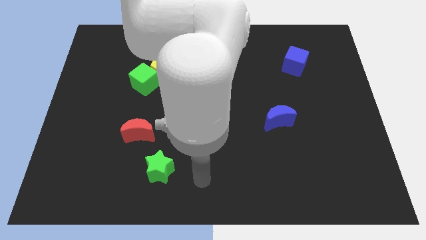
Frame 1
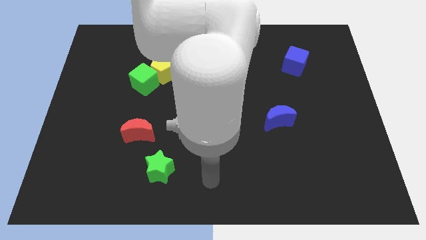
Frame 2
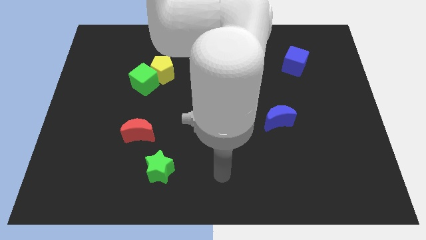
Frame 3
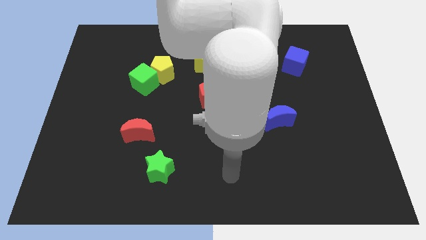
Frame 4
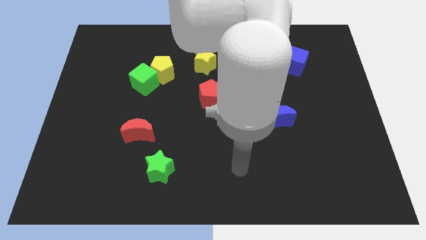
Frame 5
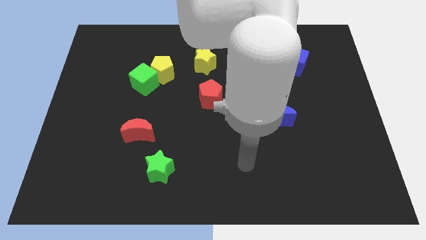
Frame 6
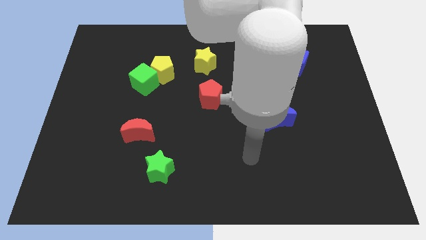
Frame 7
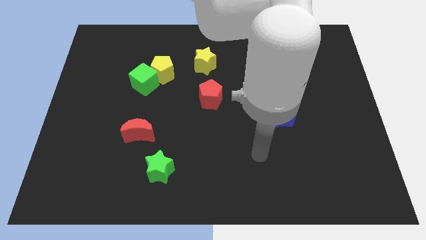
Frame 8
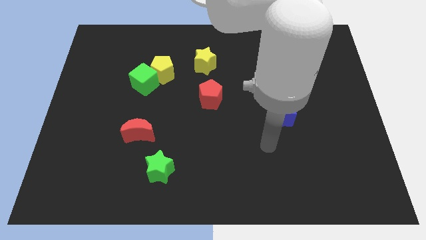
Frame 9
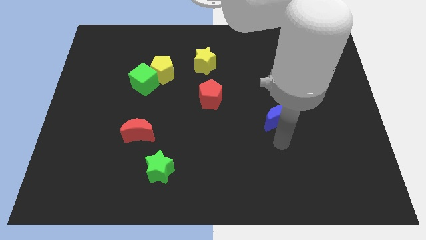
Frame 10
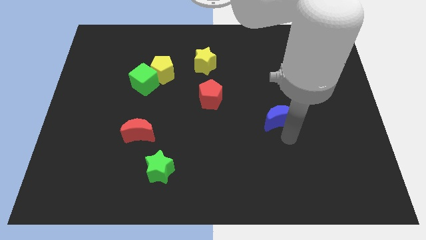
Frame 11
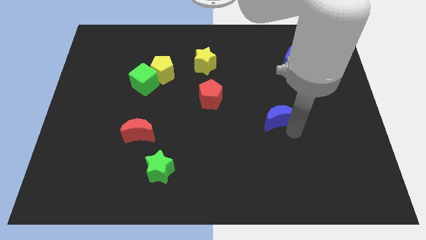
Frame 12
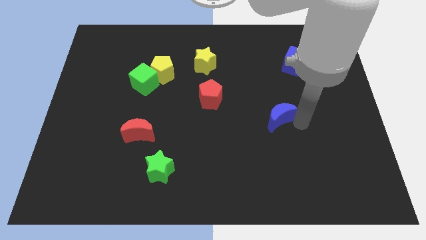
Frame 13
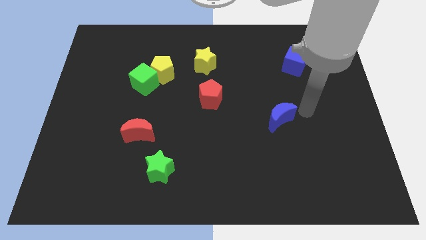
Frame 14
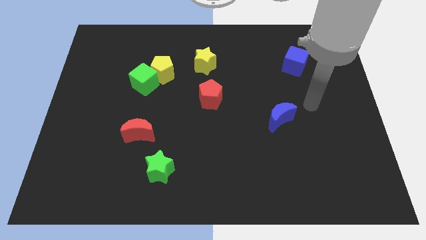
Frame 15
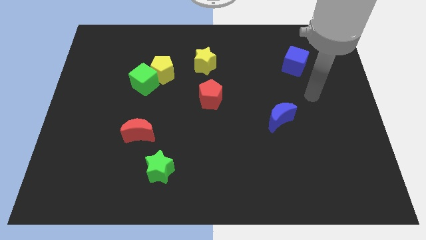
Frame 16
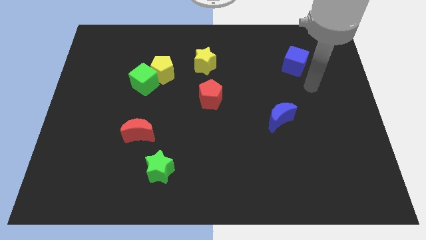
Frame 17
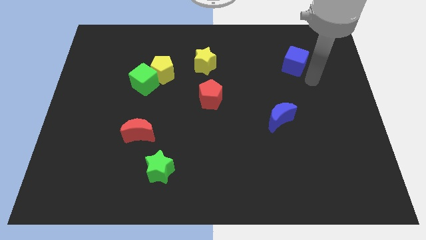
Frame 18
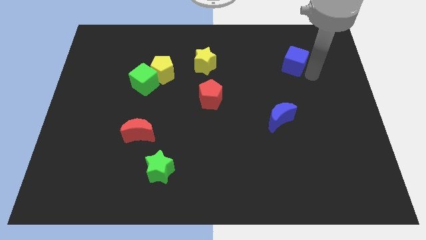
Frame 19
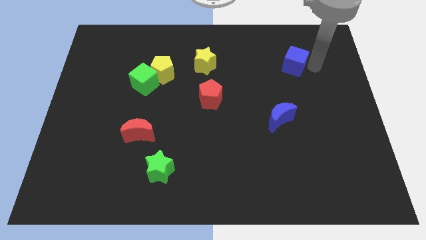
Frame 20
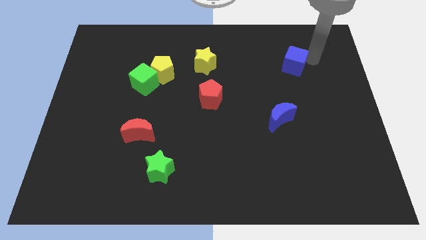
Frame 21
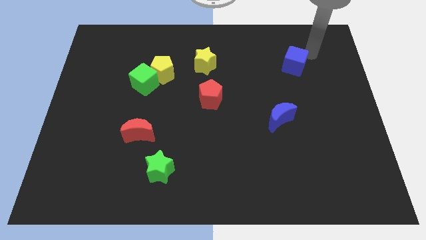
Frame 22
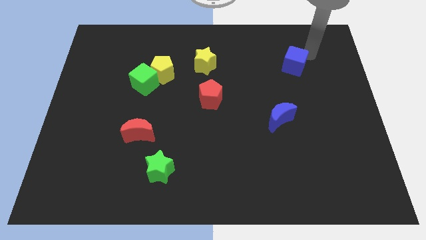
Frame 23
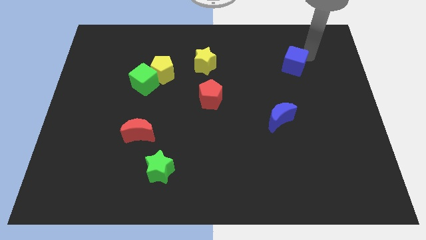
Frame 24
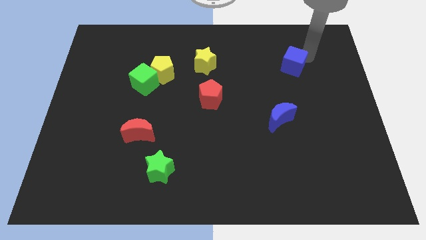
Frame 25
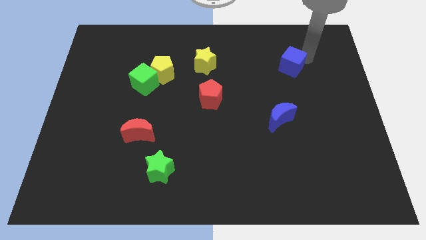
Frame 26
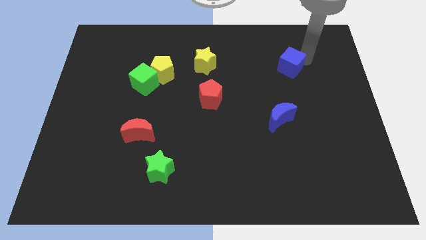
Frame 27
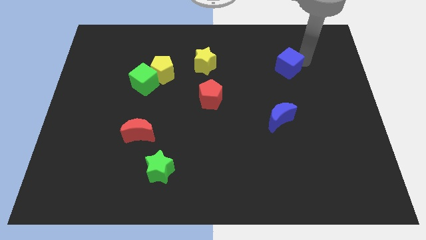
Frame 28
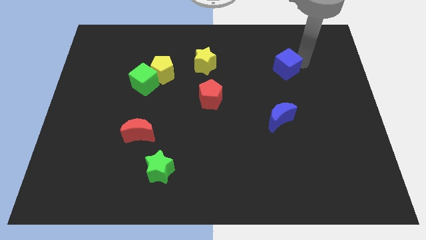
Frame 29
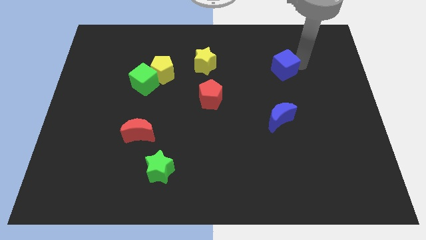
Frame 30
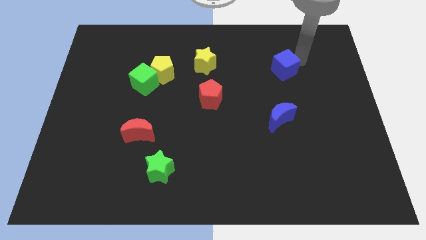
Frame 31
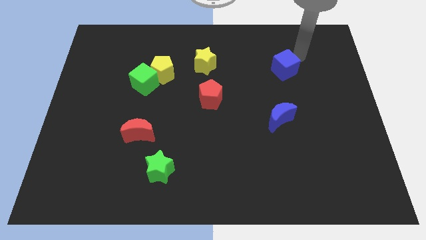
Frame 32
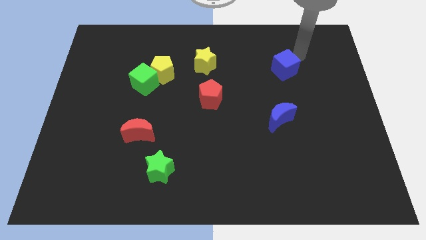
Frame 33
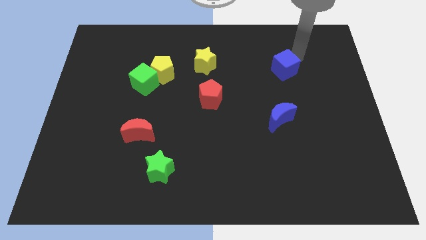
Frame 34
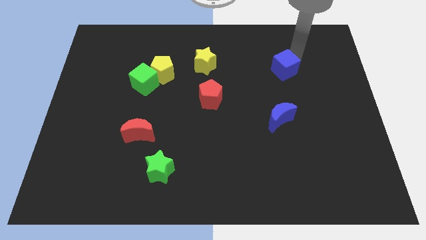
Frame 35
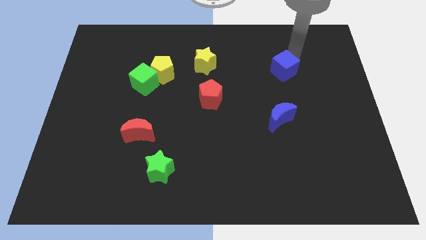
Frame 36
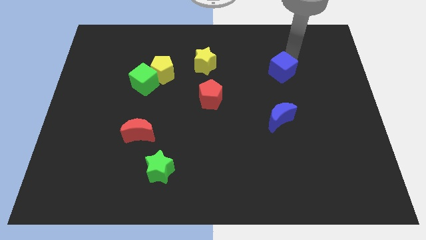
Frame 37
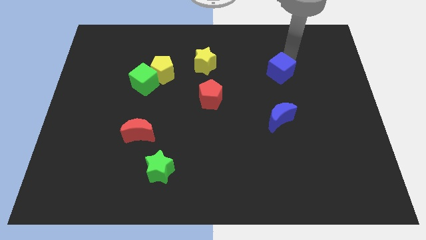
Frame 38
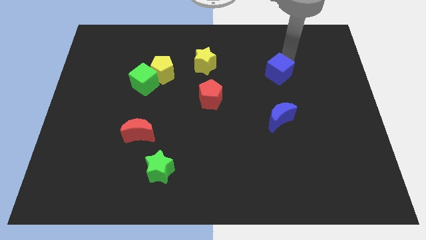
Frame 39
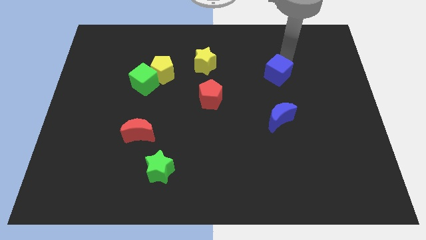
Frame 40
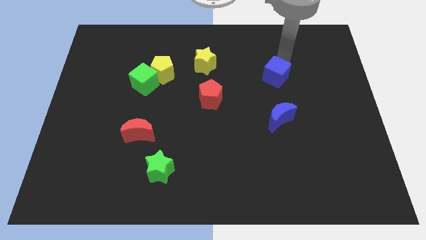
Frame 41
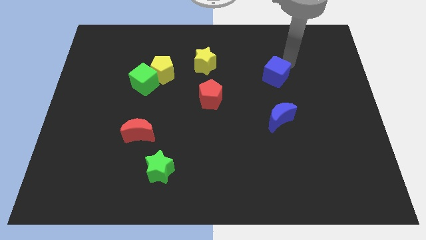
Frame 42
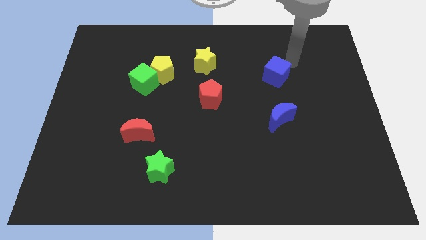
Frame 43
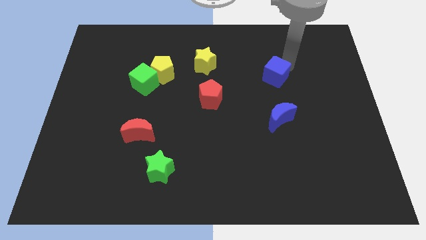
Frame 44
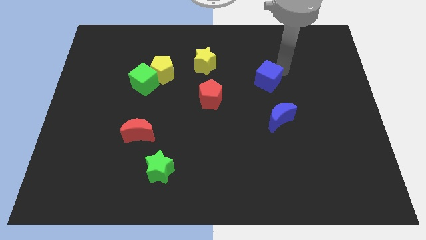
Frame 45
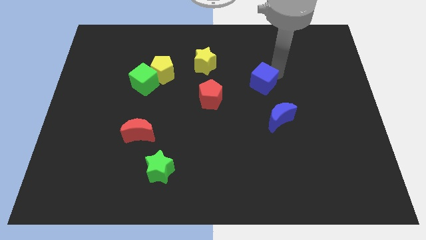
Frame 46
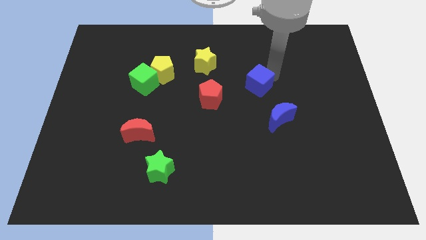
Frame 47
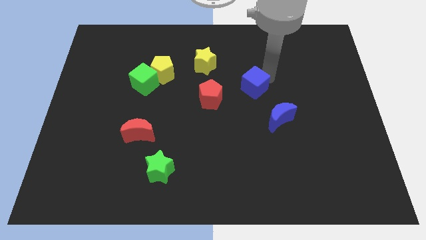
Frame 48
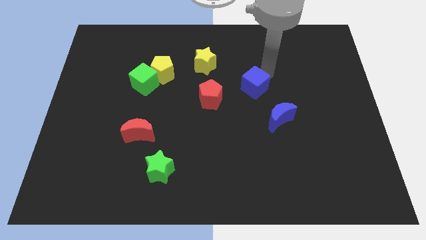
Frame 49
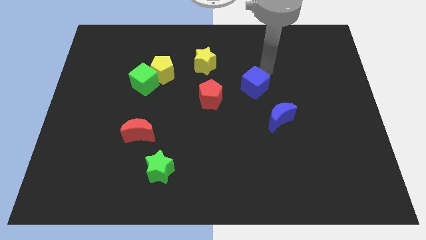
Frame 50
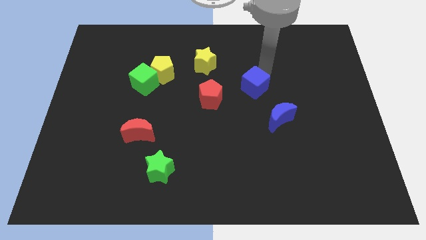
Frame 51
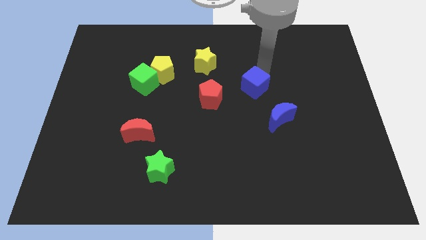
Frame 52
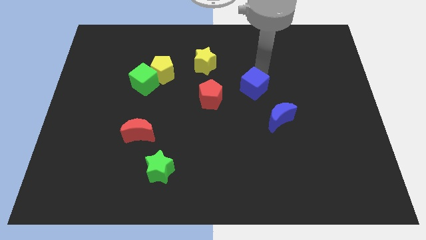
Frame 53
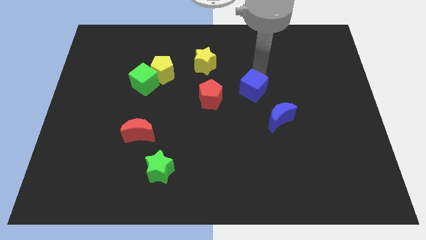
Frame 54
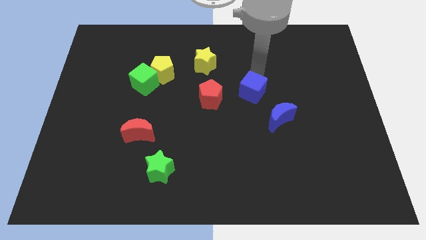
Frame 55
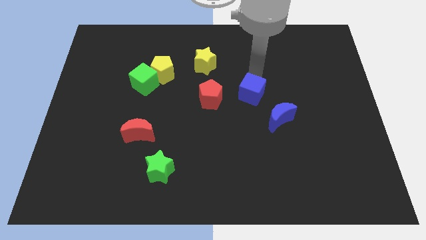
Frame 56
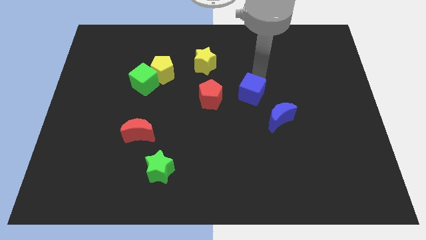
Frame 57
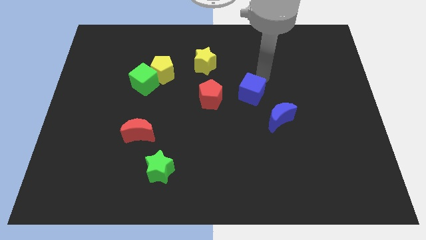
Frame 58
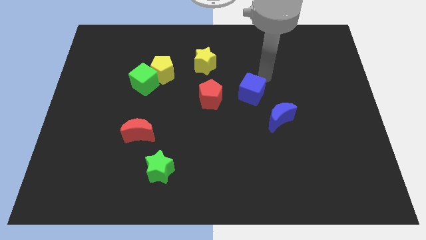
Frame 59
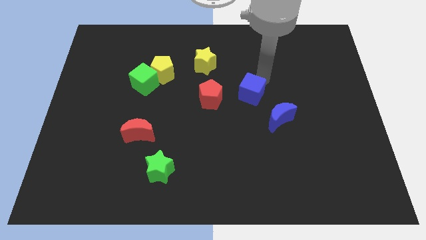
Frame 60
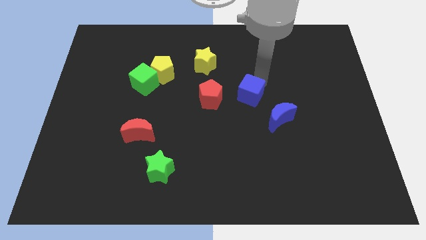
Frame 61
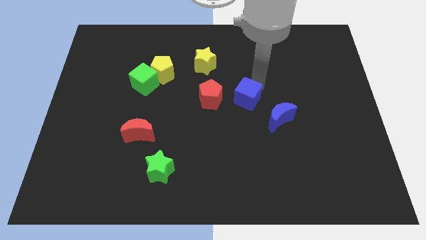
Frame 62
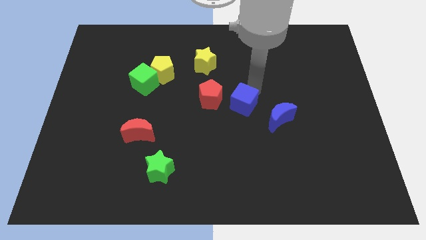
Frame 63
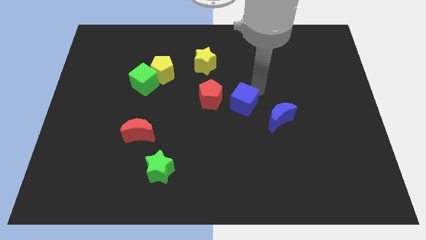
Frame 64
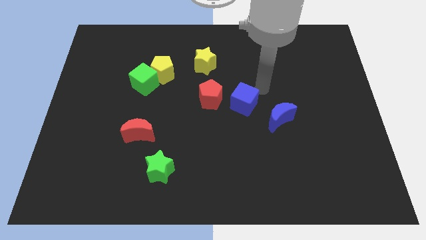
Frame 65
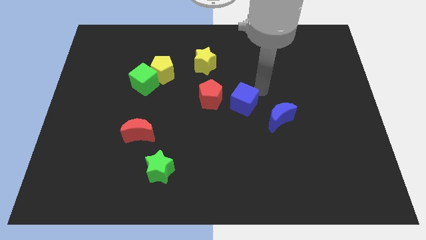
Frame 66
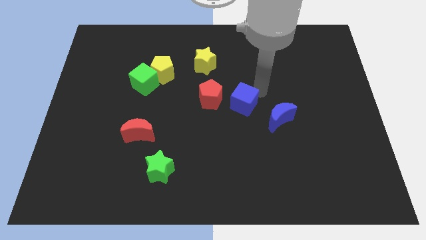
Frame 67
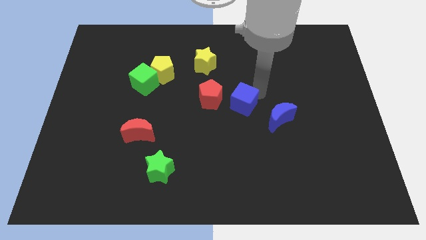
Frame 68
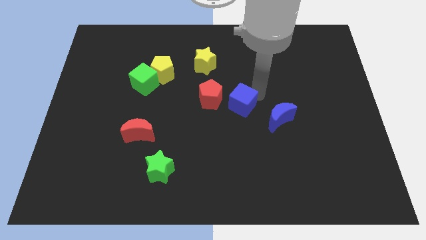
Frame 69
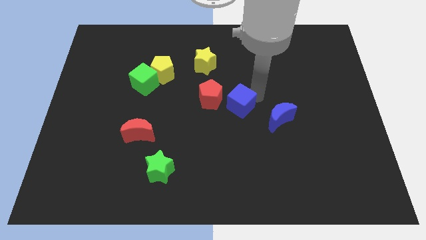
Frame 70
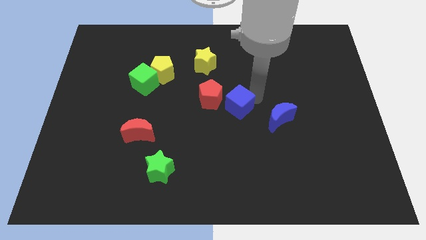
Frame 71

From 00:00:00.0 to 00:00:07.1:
slide the blue cube downwards and then left

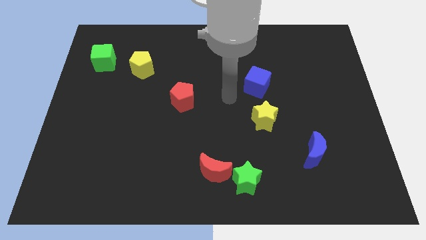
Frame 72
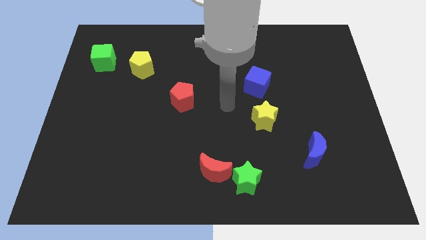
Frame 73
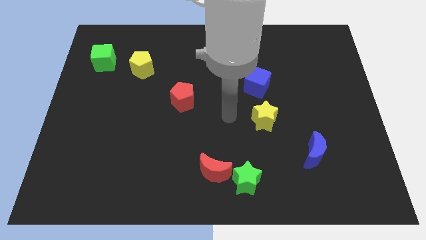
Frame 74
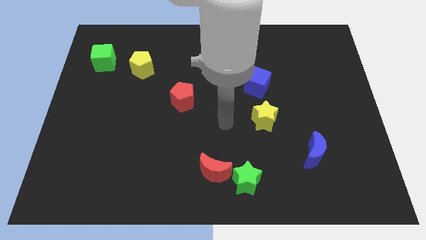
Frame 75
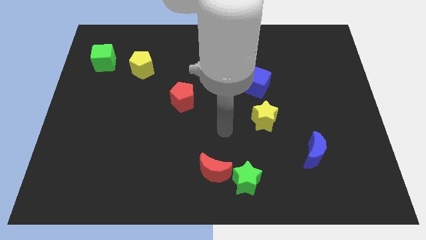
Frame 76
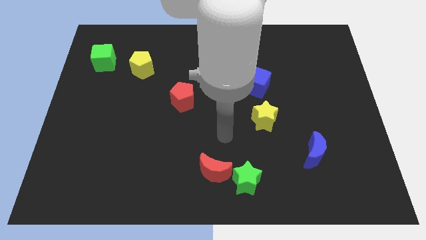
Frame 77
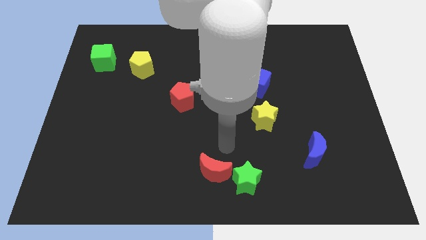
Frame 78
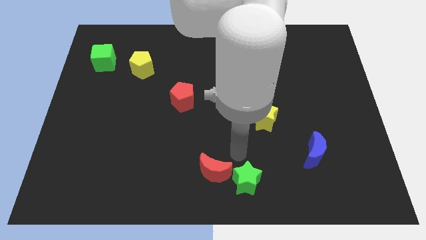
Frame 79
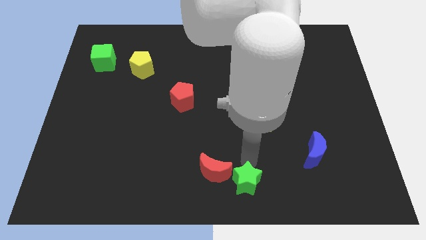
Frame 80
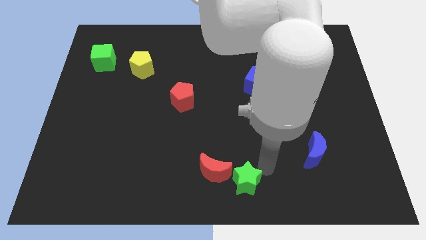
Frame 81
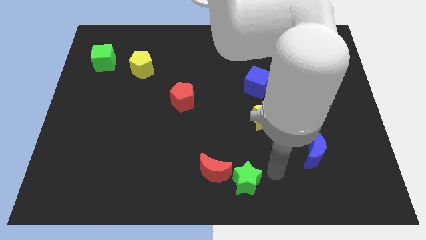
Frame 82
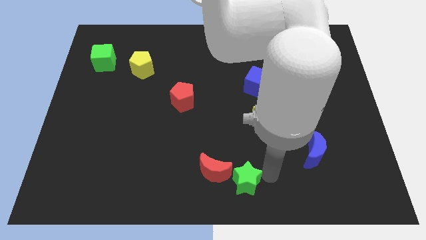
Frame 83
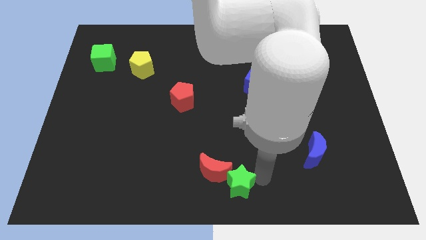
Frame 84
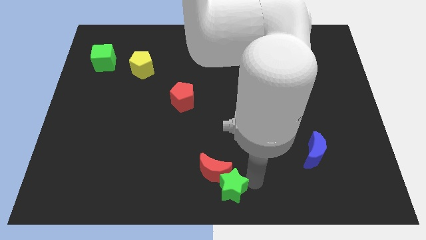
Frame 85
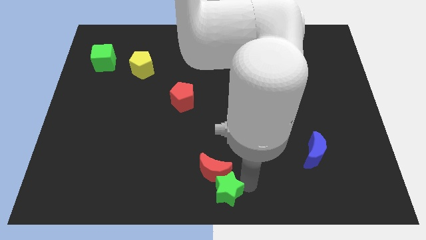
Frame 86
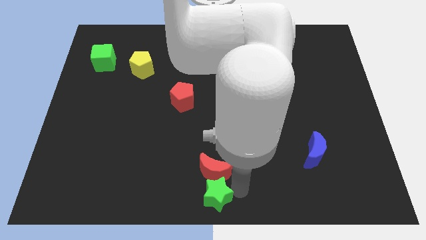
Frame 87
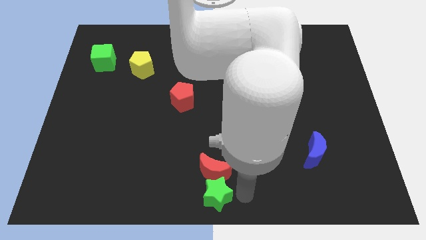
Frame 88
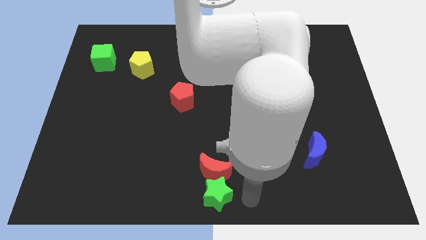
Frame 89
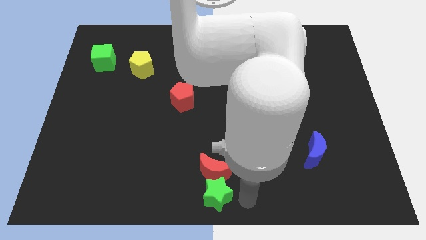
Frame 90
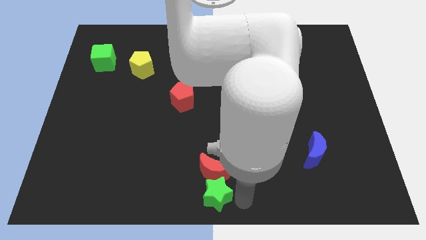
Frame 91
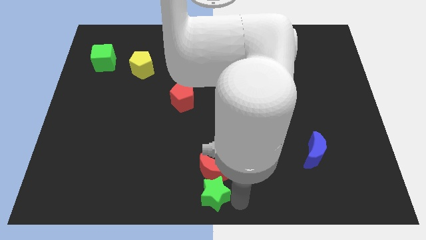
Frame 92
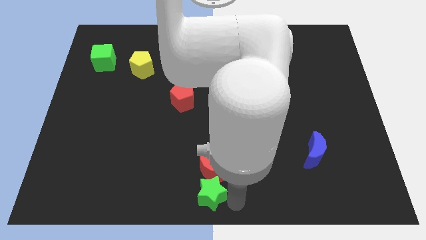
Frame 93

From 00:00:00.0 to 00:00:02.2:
slide the green star to the left a little bit
